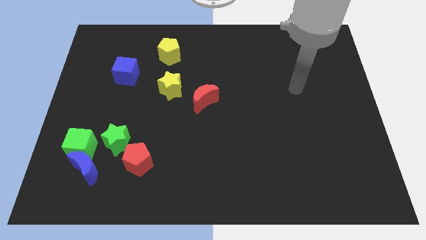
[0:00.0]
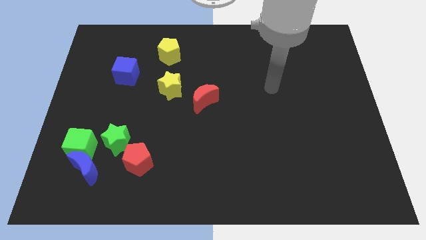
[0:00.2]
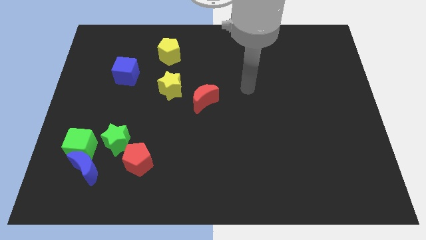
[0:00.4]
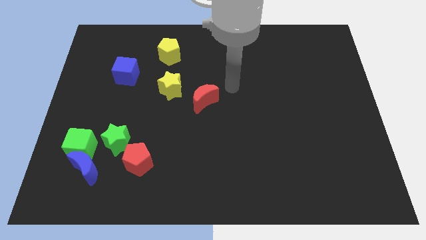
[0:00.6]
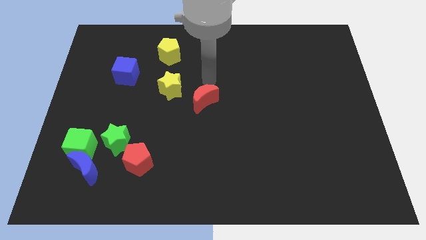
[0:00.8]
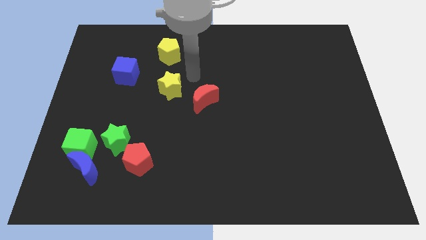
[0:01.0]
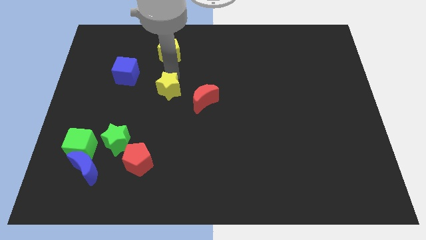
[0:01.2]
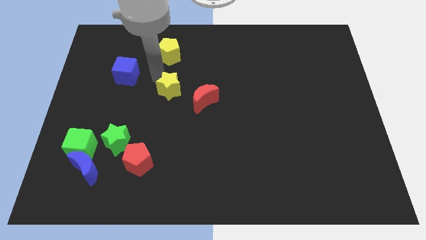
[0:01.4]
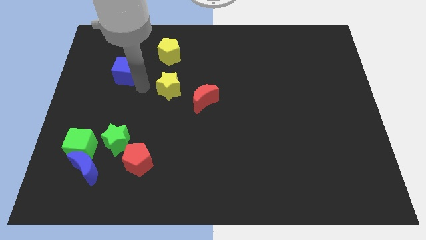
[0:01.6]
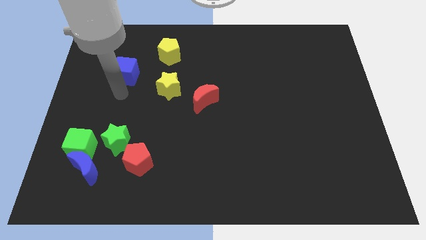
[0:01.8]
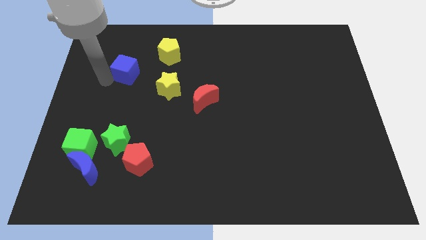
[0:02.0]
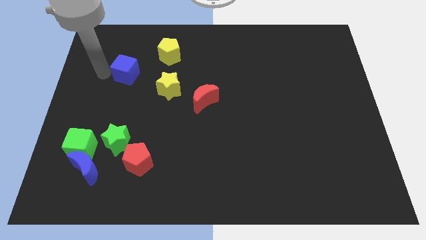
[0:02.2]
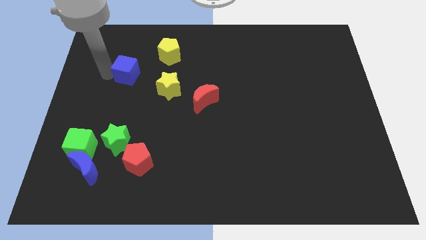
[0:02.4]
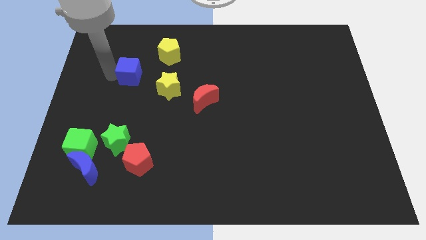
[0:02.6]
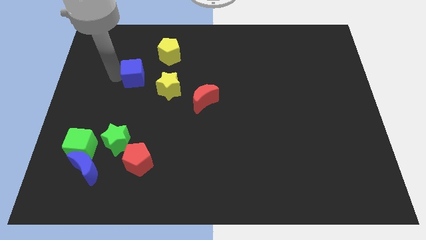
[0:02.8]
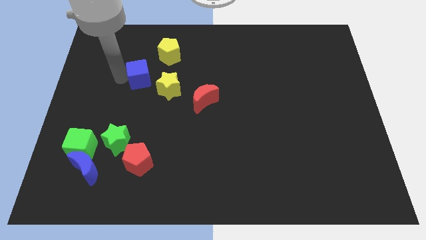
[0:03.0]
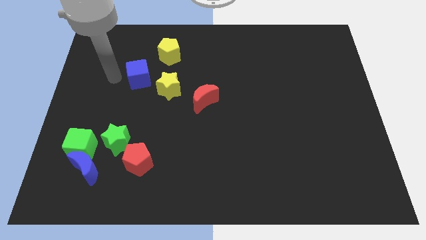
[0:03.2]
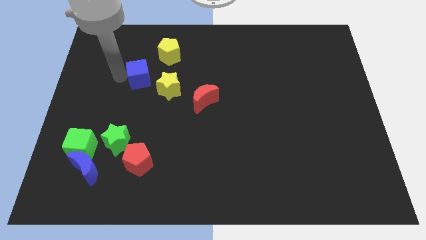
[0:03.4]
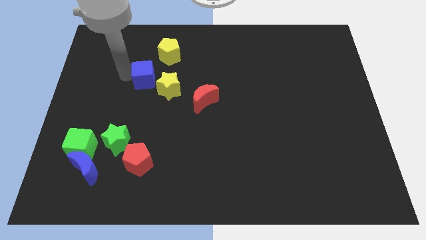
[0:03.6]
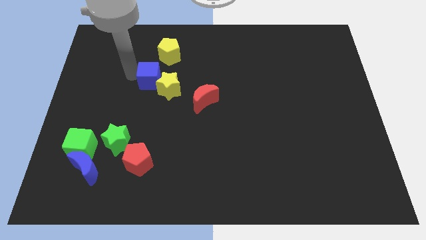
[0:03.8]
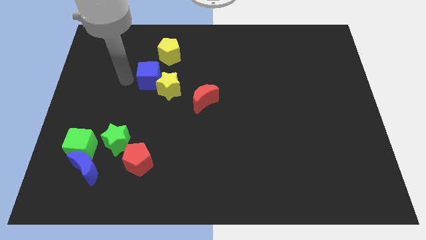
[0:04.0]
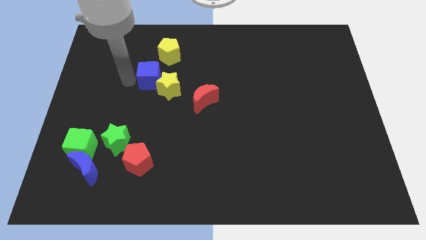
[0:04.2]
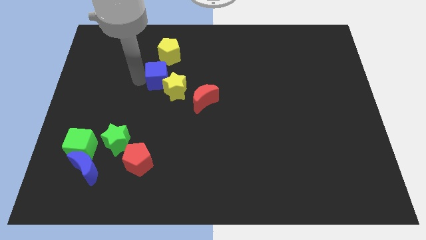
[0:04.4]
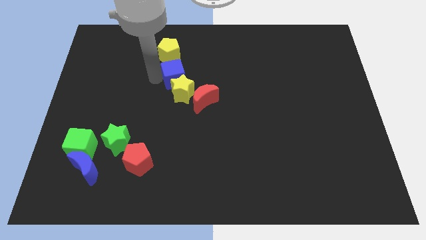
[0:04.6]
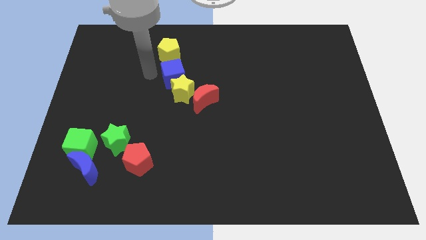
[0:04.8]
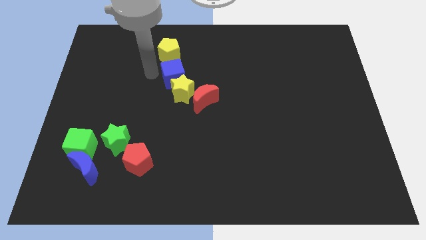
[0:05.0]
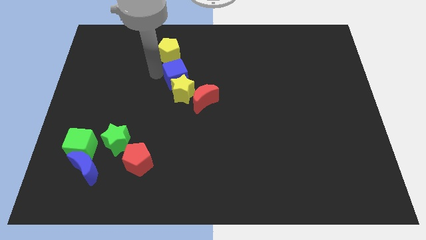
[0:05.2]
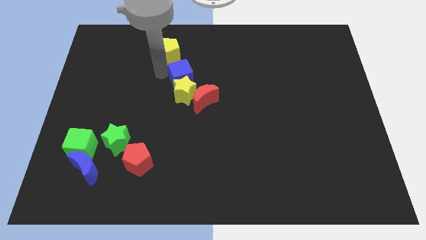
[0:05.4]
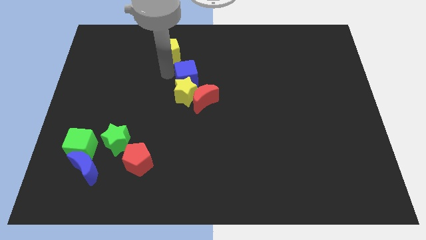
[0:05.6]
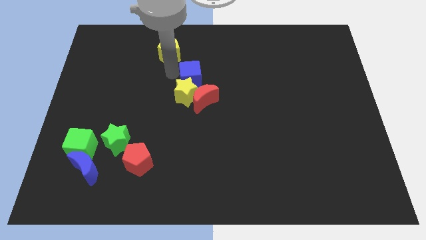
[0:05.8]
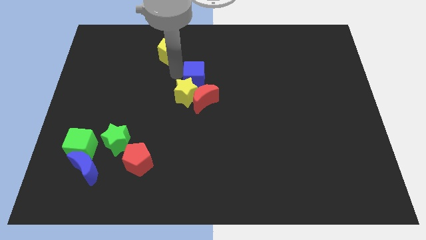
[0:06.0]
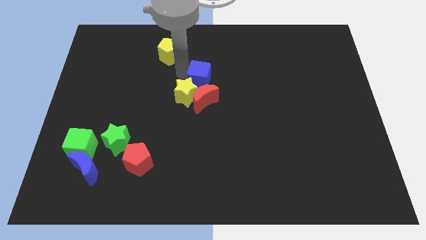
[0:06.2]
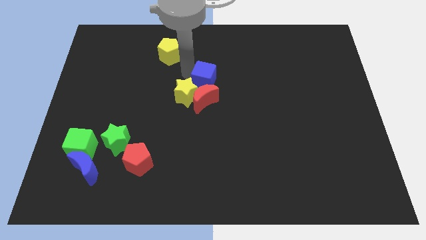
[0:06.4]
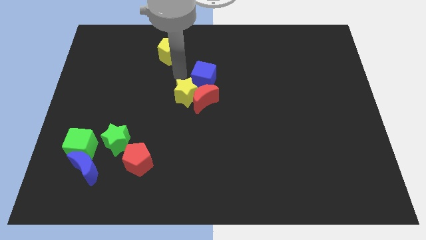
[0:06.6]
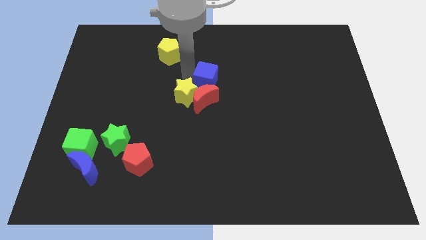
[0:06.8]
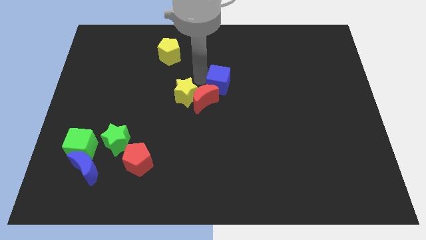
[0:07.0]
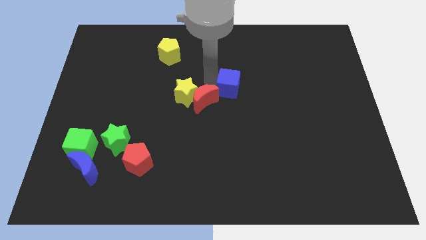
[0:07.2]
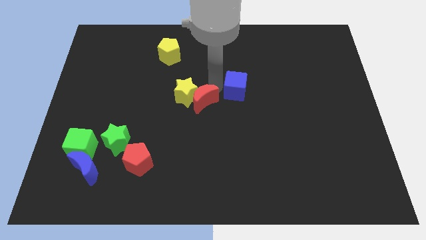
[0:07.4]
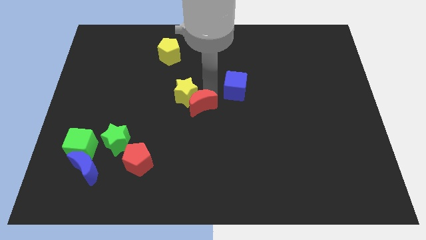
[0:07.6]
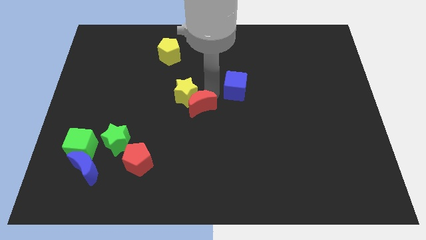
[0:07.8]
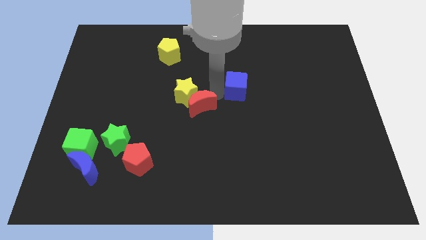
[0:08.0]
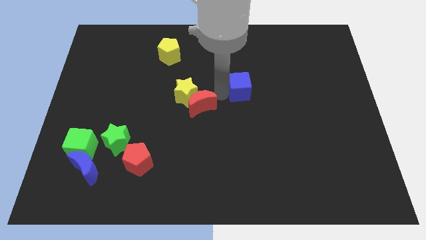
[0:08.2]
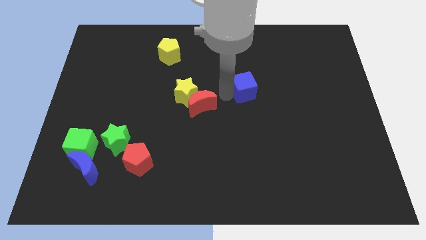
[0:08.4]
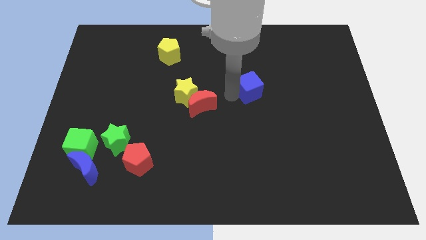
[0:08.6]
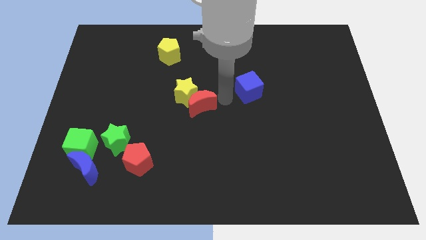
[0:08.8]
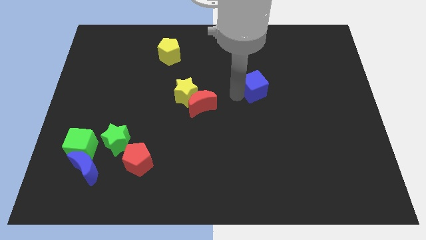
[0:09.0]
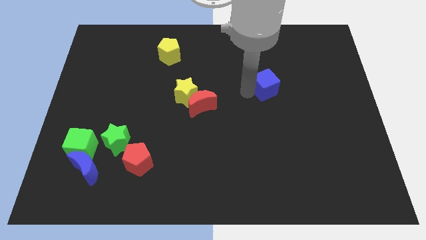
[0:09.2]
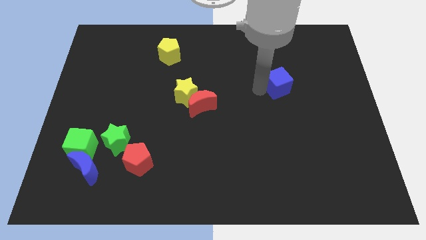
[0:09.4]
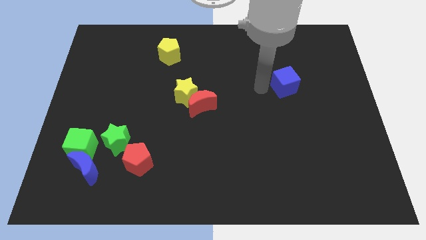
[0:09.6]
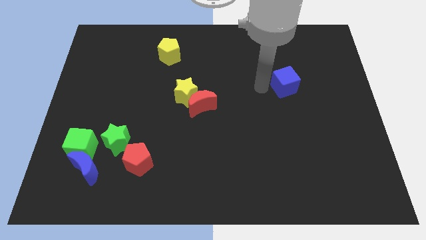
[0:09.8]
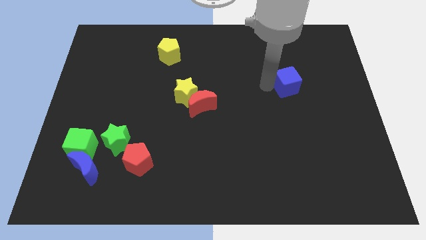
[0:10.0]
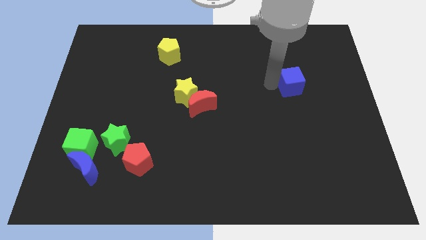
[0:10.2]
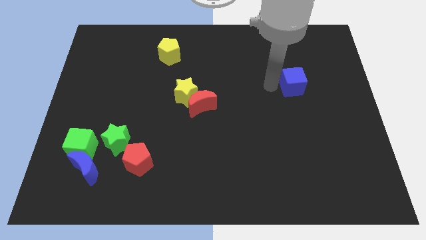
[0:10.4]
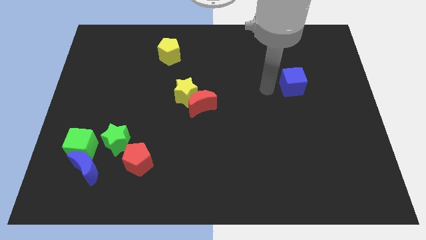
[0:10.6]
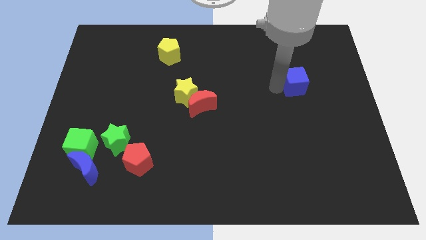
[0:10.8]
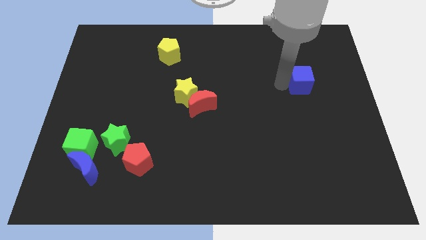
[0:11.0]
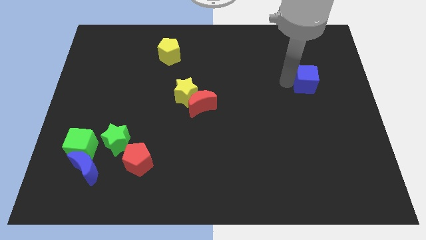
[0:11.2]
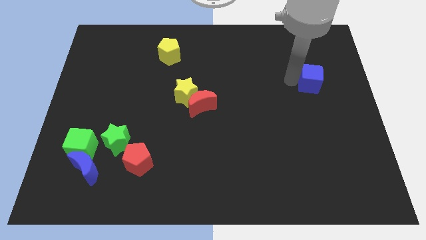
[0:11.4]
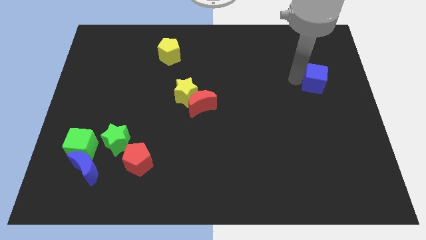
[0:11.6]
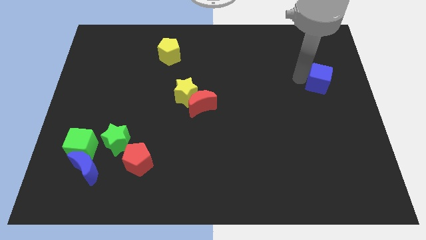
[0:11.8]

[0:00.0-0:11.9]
move the blue cube to the right side of the board
